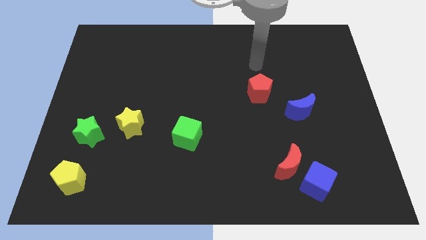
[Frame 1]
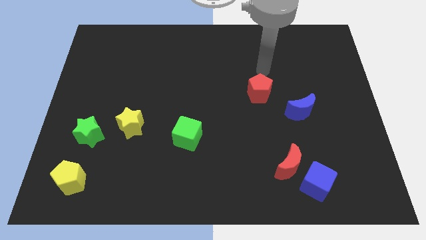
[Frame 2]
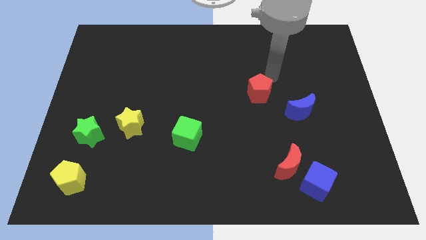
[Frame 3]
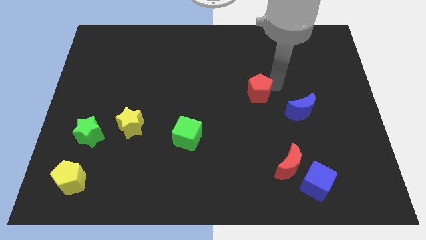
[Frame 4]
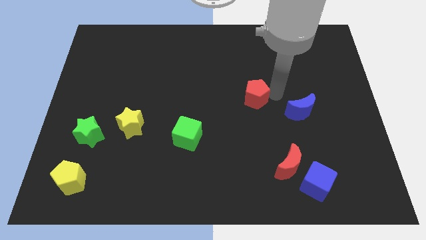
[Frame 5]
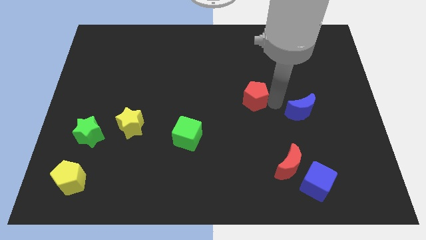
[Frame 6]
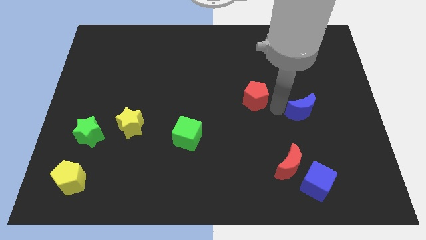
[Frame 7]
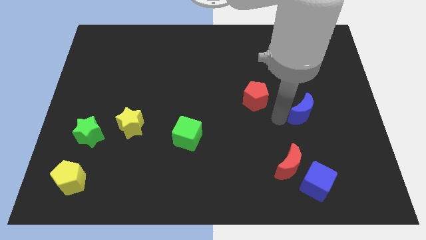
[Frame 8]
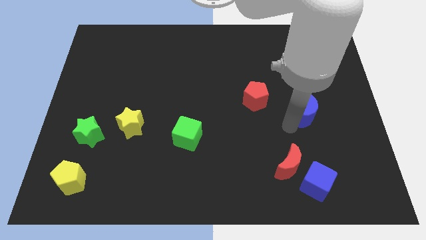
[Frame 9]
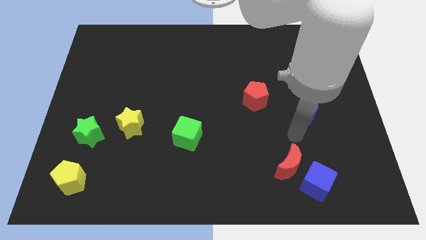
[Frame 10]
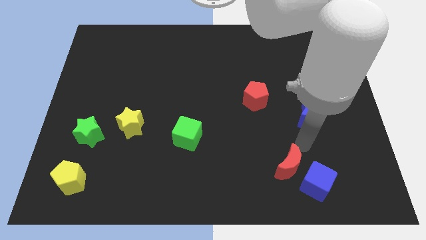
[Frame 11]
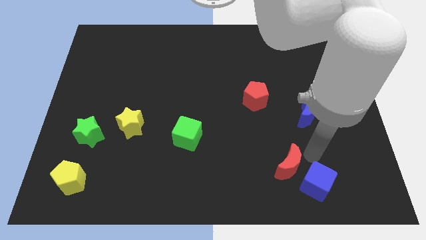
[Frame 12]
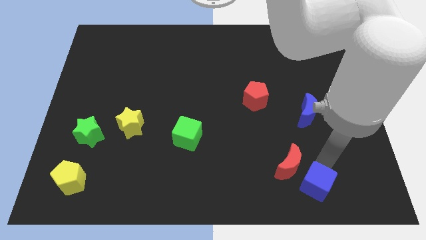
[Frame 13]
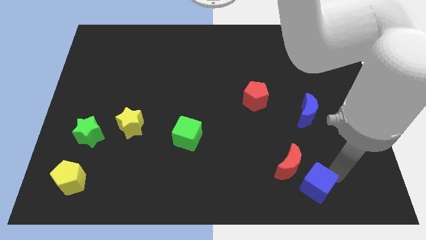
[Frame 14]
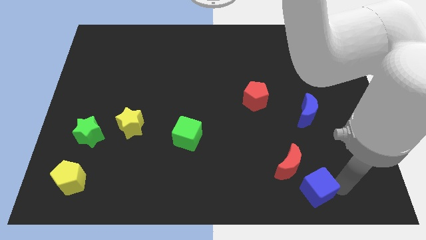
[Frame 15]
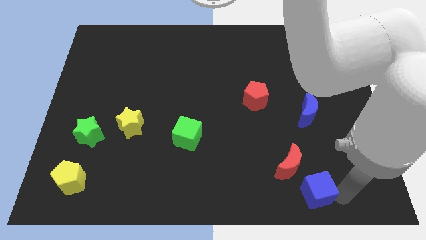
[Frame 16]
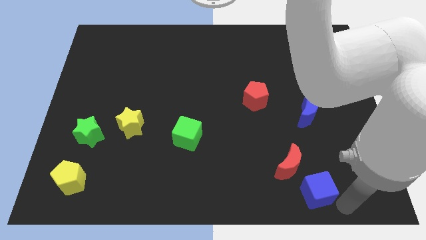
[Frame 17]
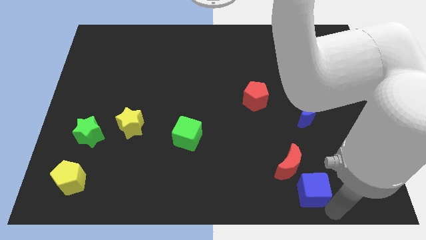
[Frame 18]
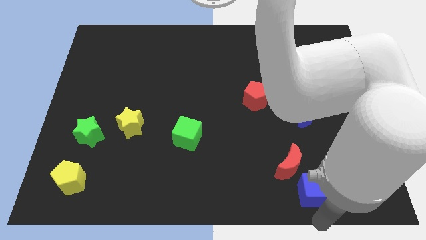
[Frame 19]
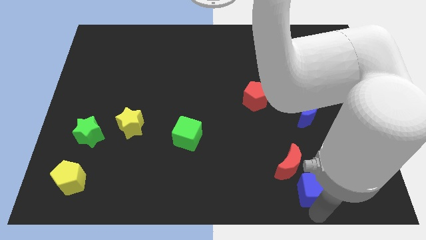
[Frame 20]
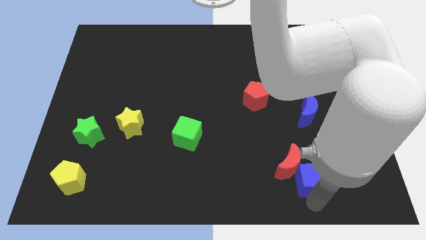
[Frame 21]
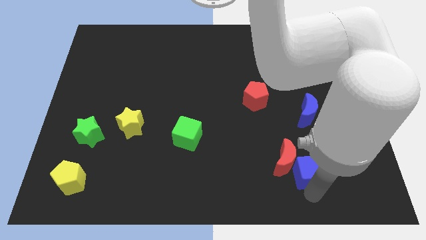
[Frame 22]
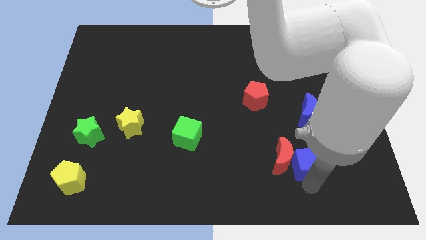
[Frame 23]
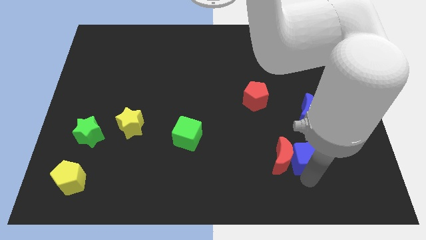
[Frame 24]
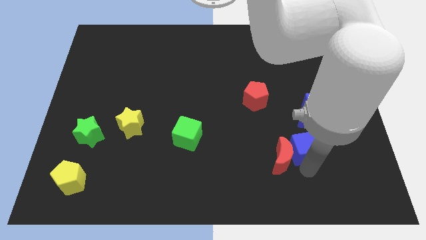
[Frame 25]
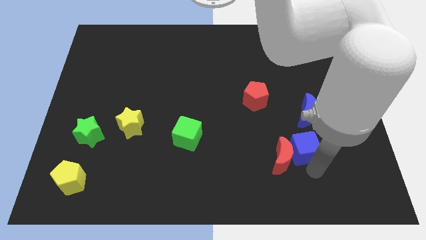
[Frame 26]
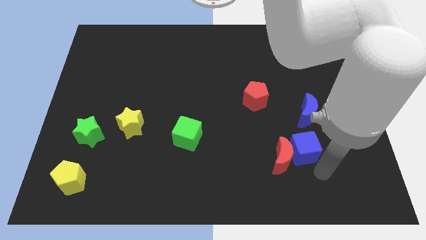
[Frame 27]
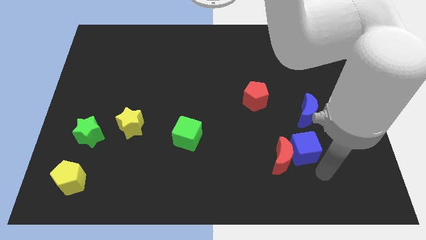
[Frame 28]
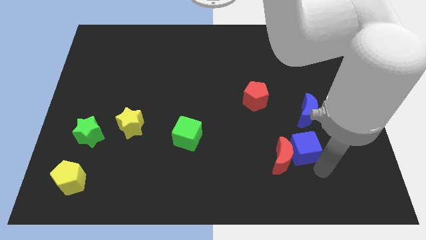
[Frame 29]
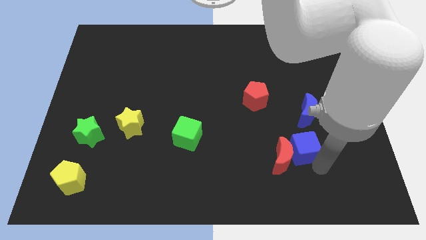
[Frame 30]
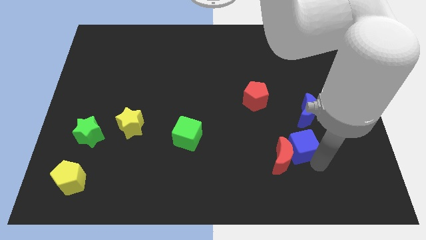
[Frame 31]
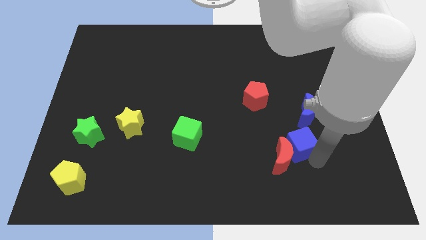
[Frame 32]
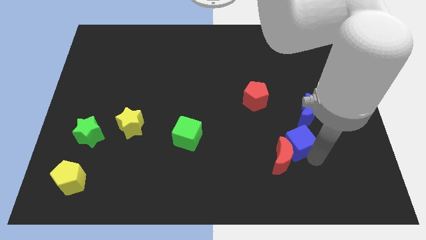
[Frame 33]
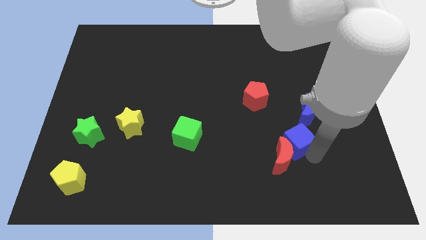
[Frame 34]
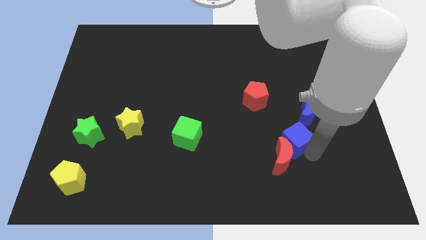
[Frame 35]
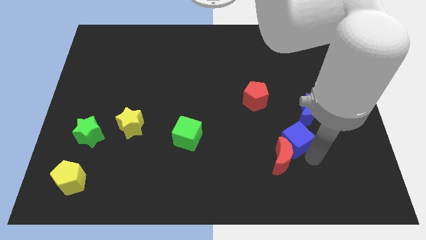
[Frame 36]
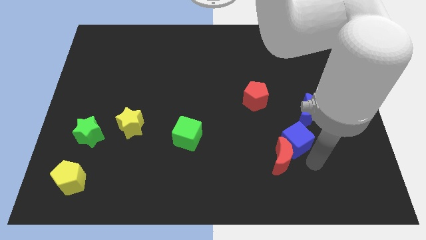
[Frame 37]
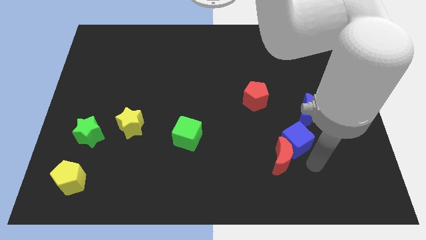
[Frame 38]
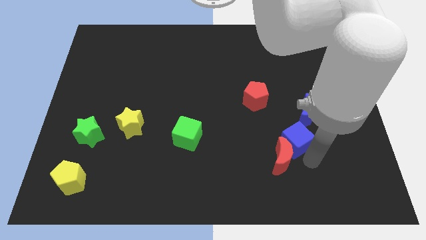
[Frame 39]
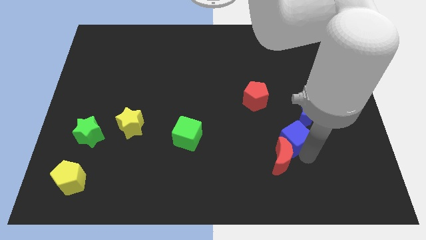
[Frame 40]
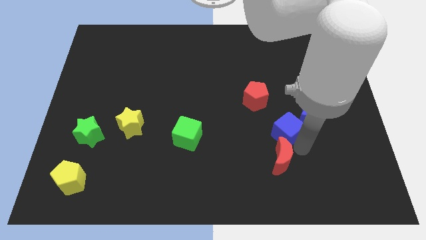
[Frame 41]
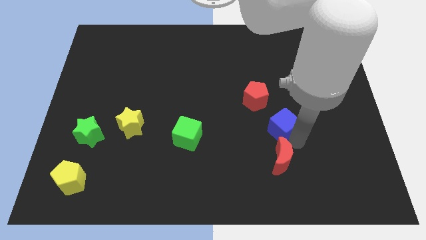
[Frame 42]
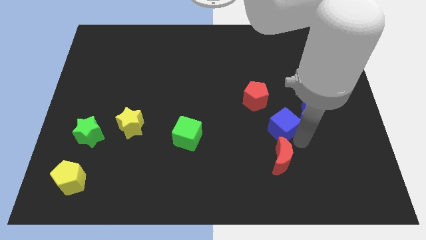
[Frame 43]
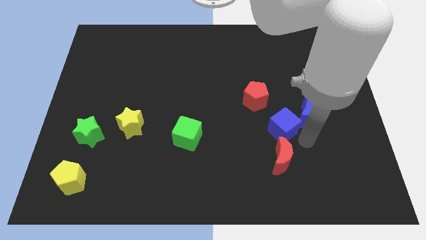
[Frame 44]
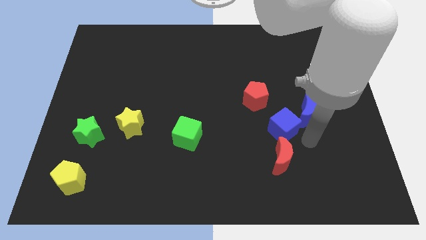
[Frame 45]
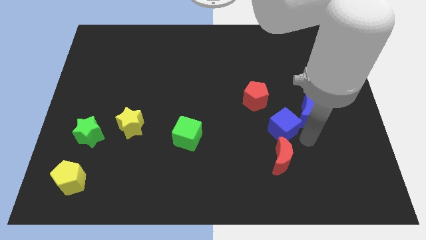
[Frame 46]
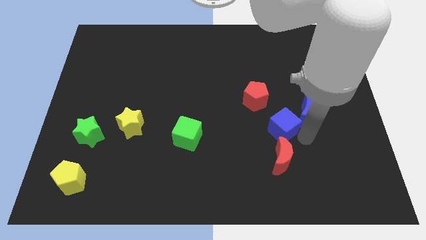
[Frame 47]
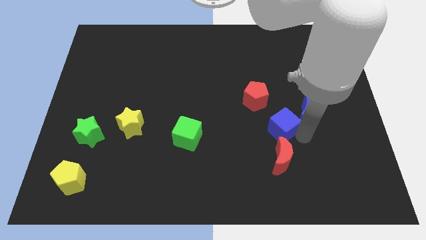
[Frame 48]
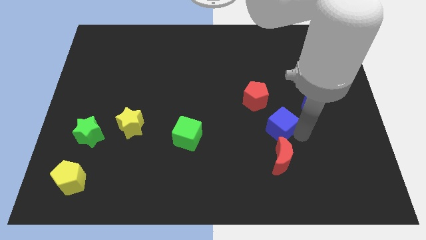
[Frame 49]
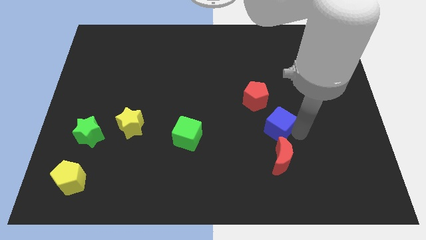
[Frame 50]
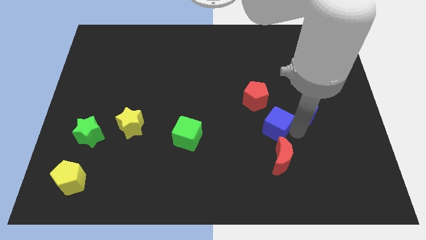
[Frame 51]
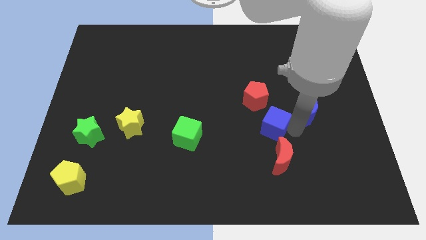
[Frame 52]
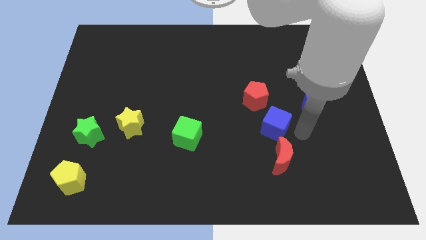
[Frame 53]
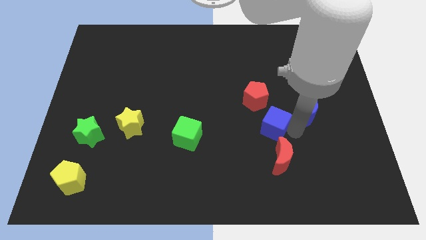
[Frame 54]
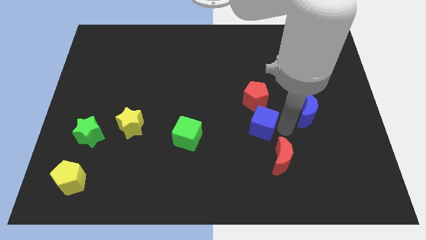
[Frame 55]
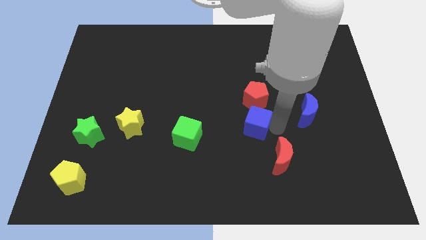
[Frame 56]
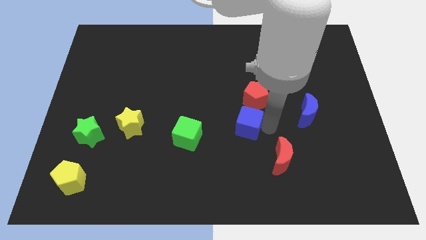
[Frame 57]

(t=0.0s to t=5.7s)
push the blue cube diagonally down and to the left of the red pentagon
